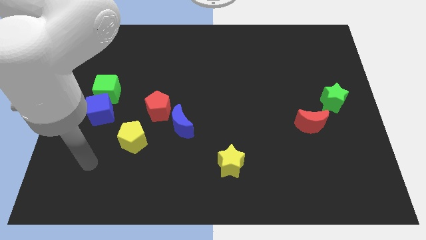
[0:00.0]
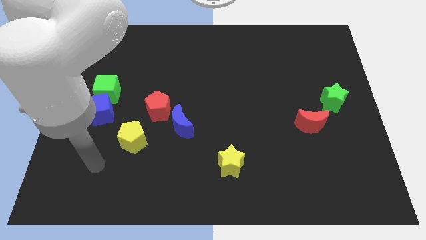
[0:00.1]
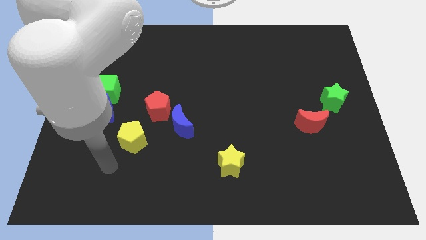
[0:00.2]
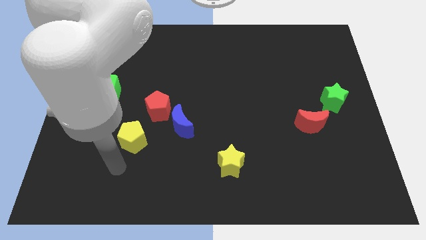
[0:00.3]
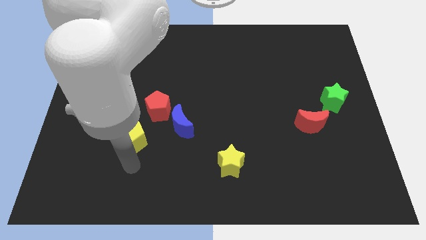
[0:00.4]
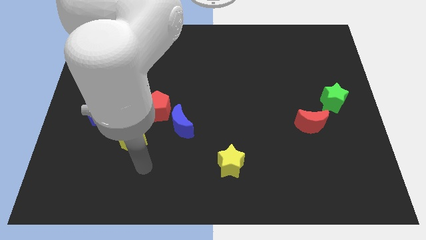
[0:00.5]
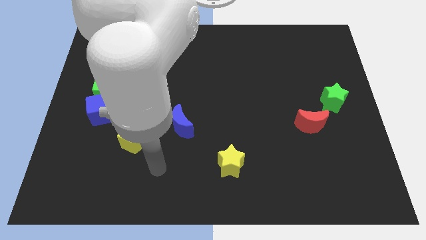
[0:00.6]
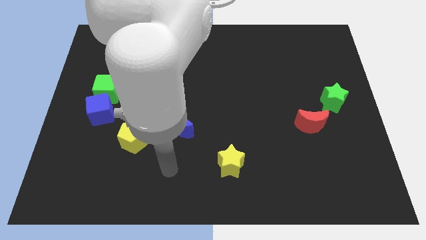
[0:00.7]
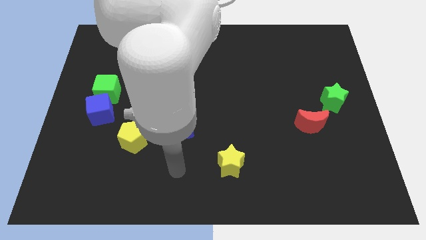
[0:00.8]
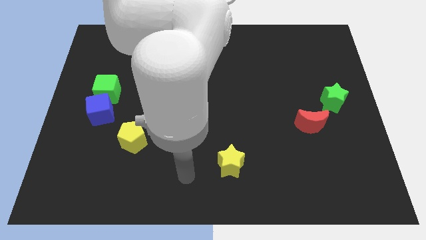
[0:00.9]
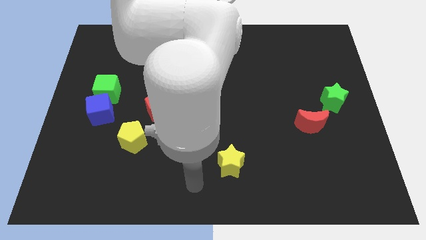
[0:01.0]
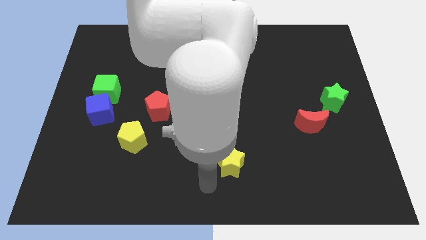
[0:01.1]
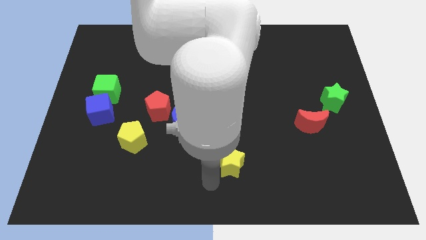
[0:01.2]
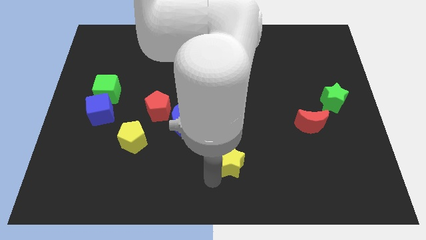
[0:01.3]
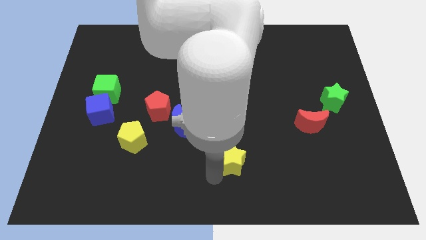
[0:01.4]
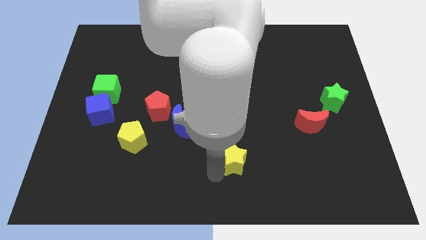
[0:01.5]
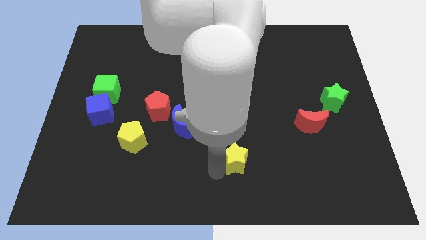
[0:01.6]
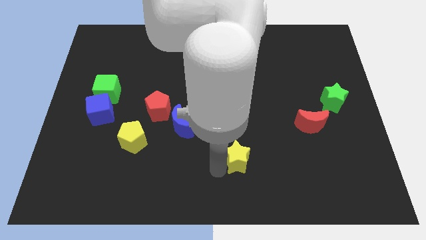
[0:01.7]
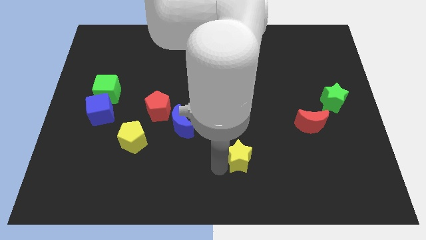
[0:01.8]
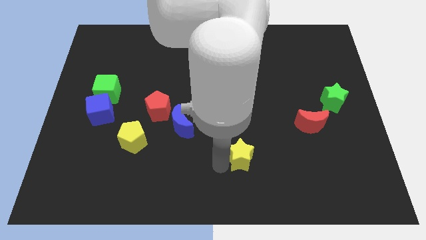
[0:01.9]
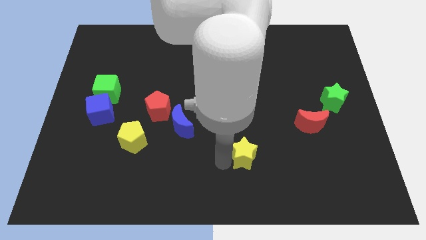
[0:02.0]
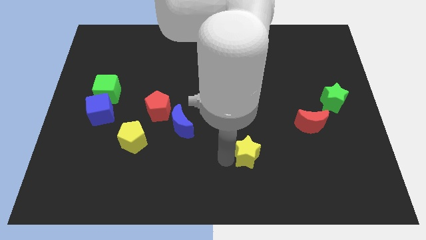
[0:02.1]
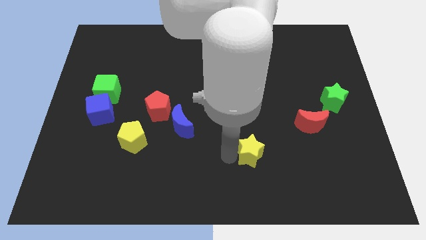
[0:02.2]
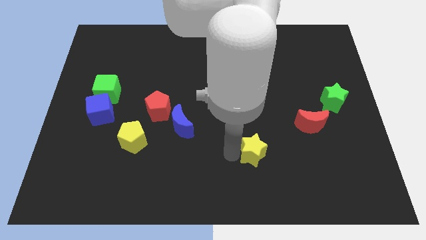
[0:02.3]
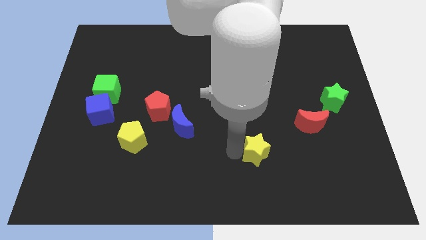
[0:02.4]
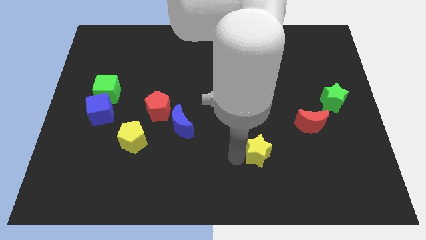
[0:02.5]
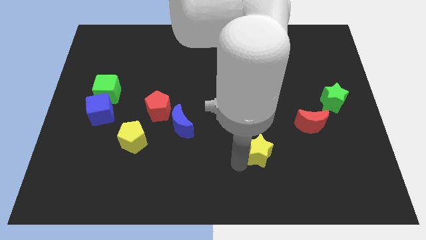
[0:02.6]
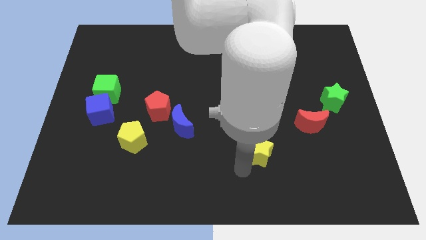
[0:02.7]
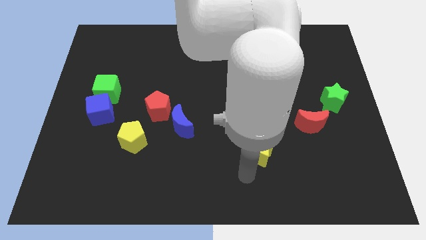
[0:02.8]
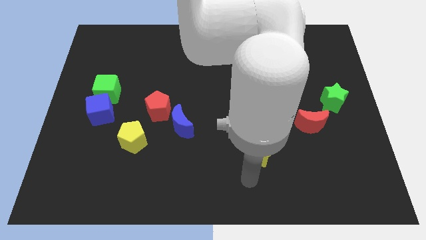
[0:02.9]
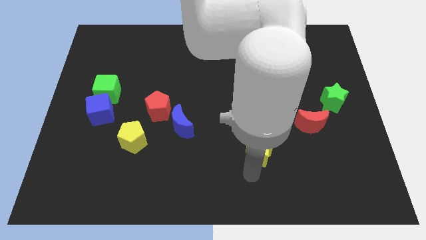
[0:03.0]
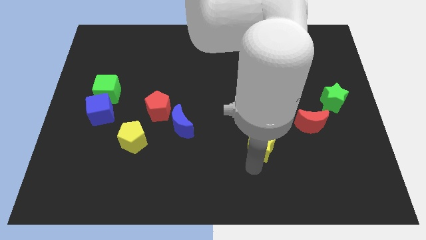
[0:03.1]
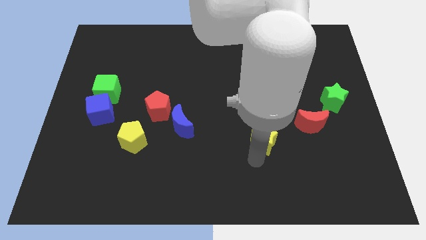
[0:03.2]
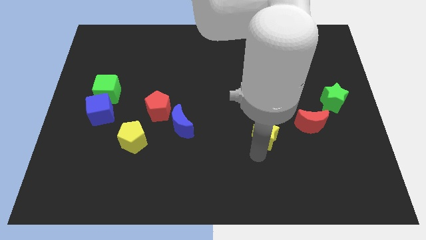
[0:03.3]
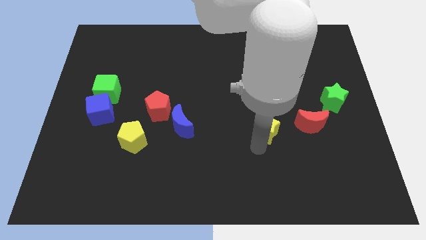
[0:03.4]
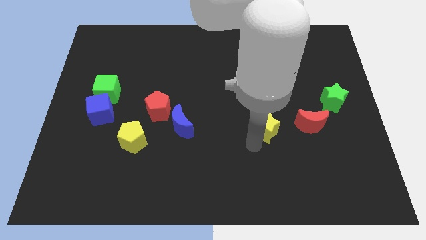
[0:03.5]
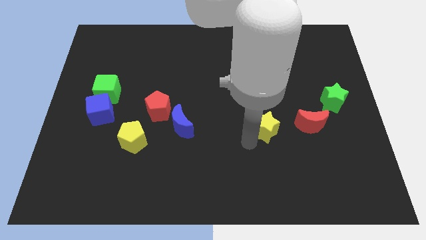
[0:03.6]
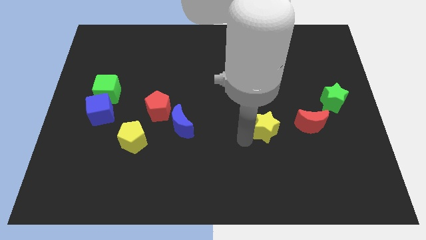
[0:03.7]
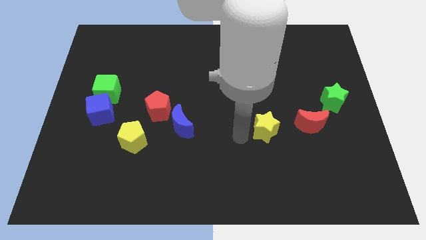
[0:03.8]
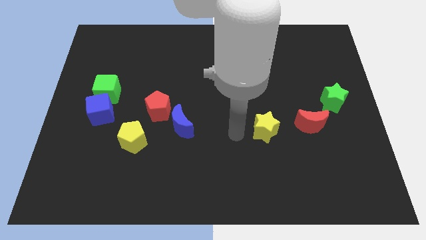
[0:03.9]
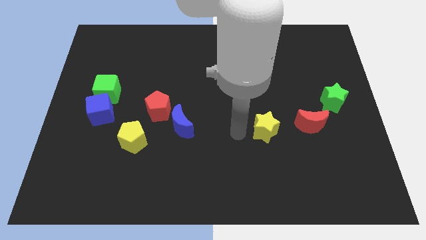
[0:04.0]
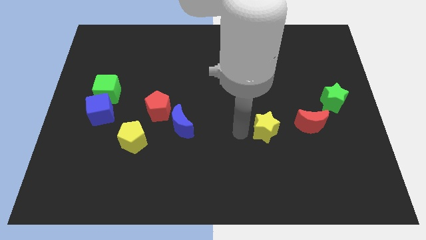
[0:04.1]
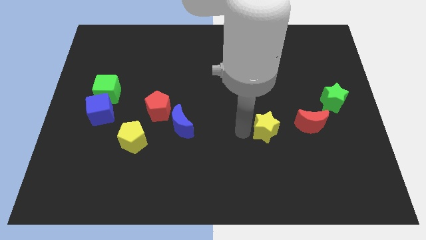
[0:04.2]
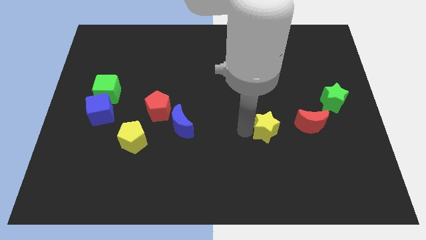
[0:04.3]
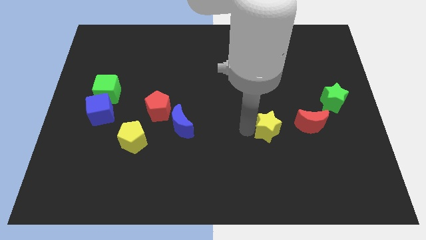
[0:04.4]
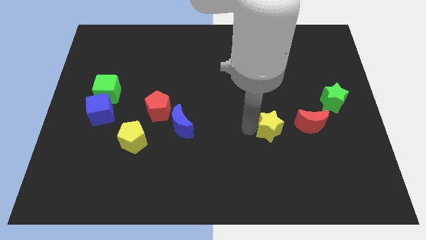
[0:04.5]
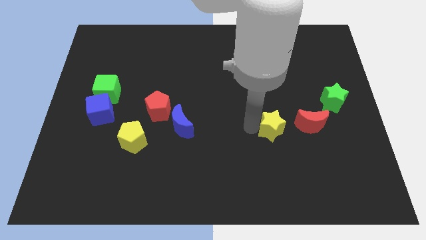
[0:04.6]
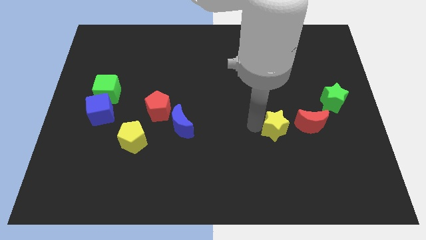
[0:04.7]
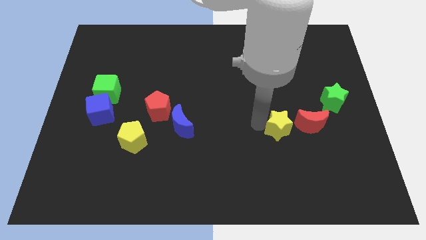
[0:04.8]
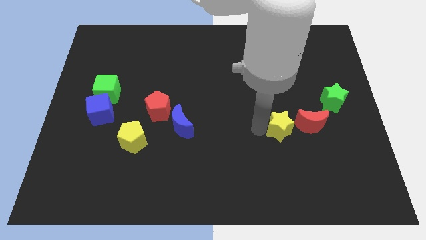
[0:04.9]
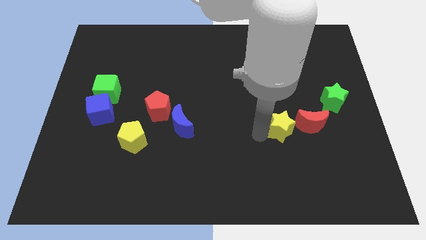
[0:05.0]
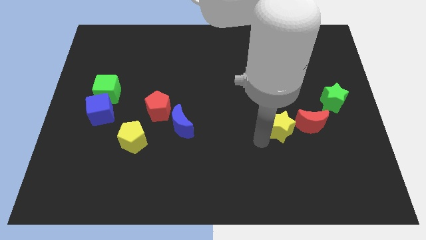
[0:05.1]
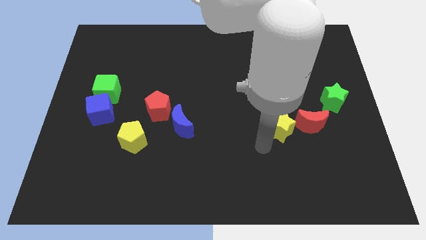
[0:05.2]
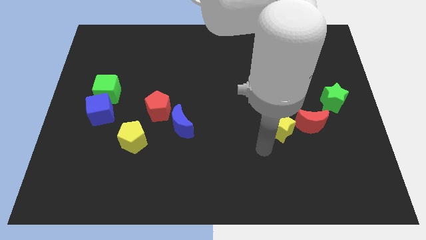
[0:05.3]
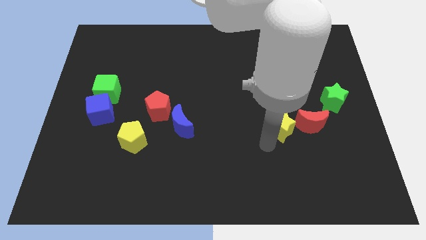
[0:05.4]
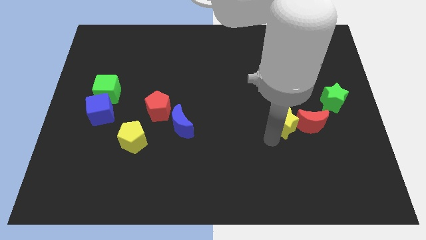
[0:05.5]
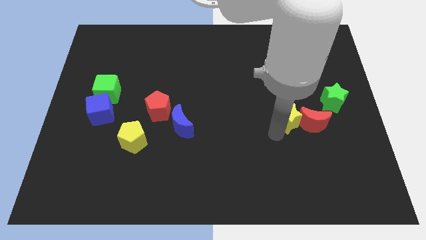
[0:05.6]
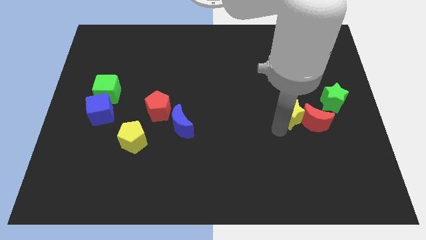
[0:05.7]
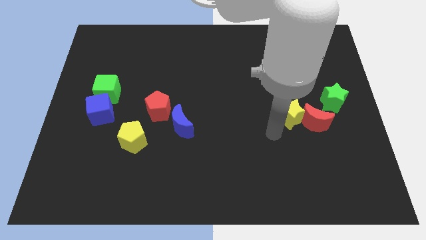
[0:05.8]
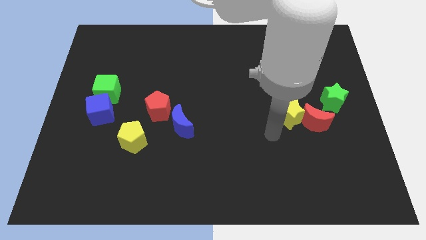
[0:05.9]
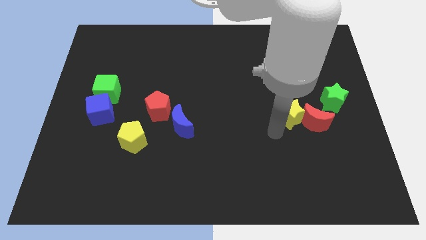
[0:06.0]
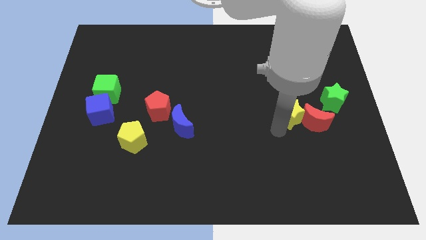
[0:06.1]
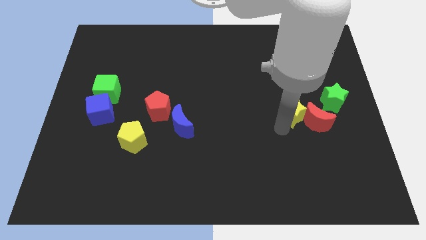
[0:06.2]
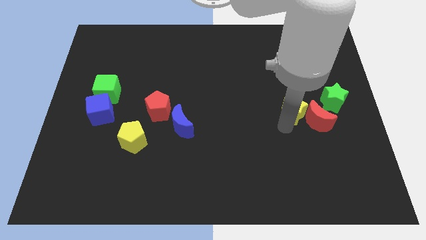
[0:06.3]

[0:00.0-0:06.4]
slide the yellow star upwards and right

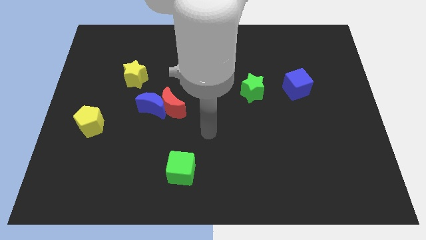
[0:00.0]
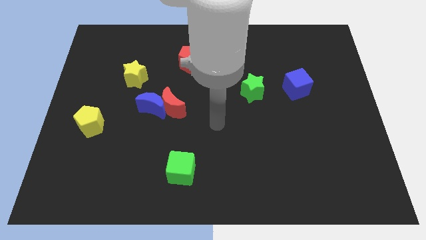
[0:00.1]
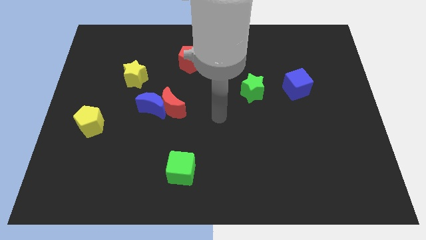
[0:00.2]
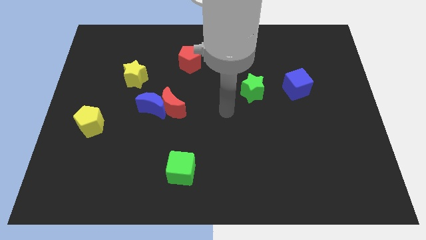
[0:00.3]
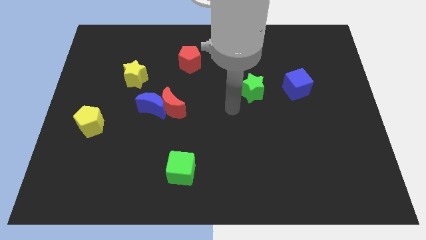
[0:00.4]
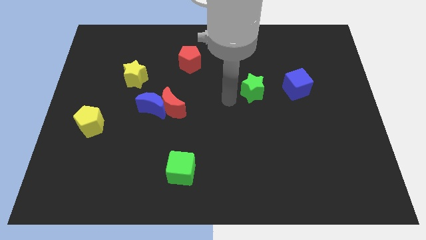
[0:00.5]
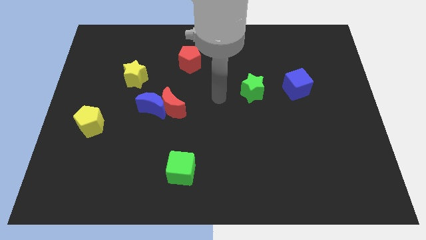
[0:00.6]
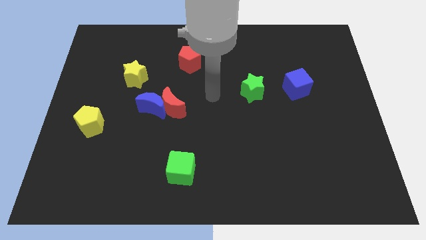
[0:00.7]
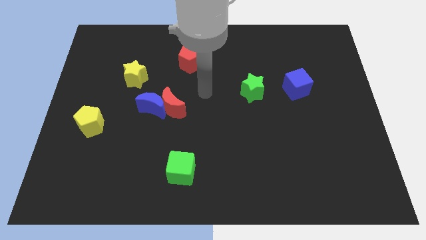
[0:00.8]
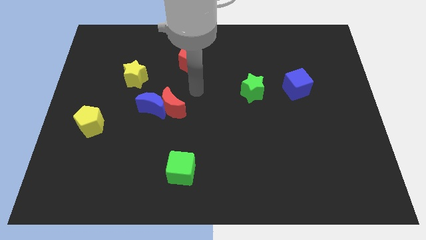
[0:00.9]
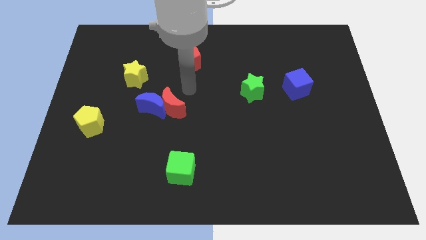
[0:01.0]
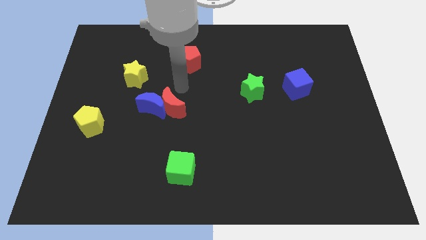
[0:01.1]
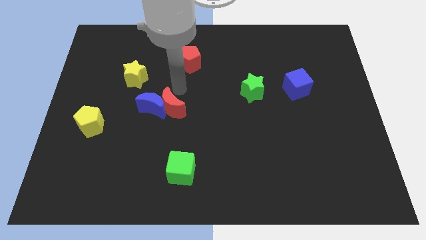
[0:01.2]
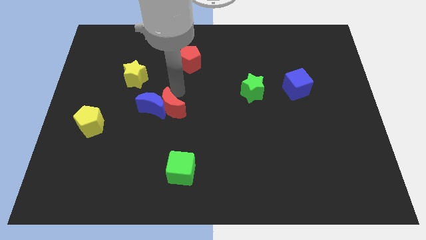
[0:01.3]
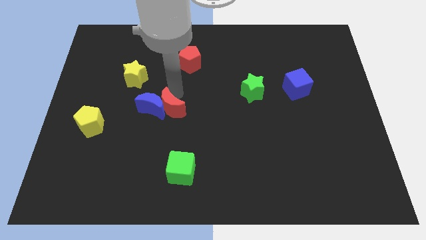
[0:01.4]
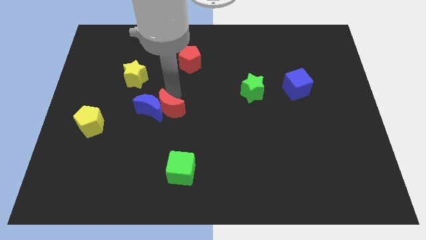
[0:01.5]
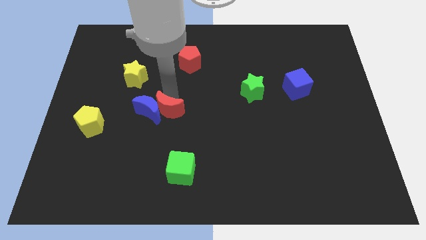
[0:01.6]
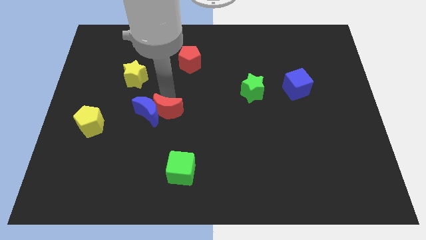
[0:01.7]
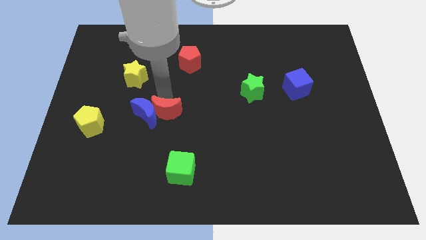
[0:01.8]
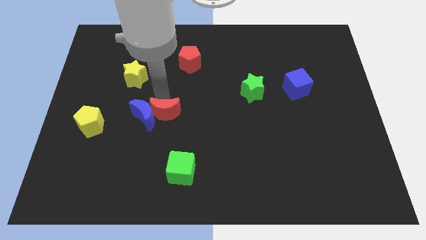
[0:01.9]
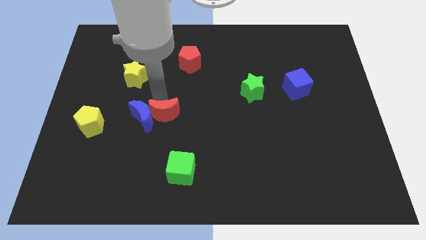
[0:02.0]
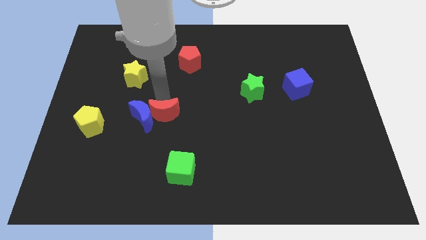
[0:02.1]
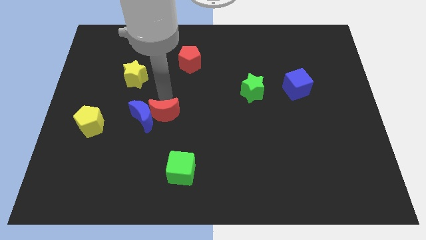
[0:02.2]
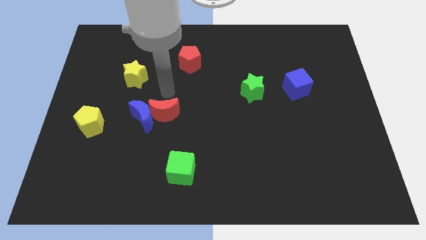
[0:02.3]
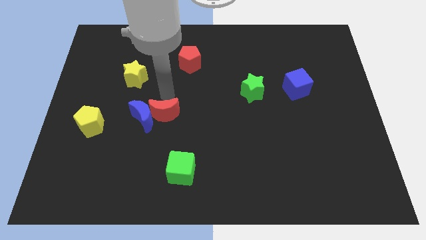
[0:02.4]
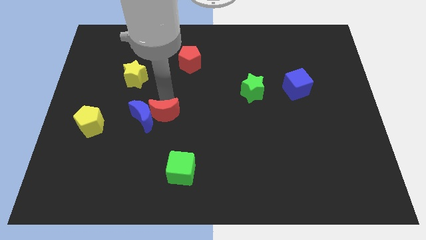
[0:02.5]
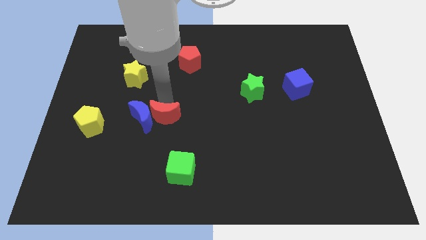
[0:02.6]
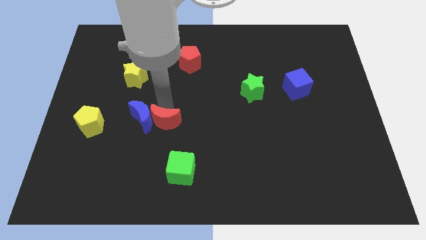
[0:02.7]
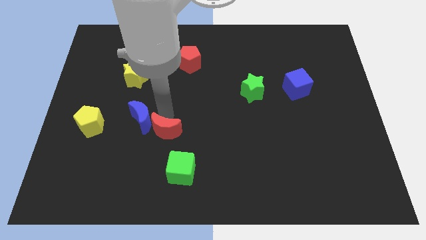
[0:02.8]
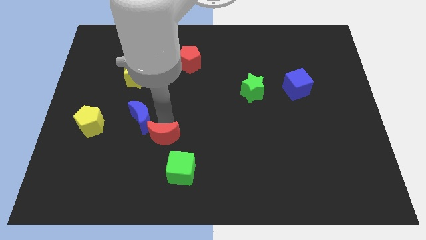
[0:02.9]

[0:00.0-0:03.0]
move the red moon a little bit down
